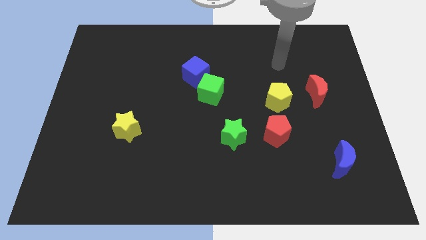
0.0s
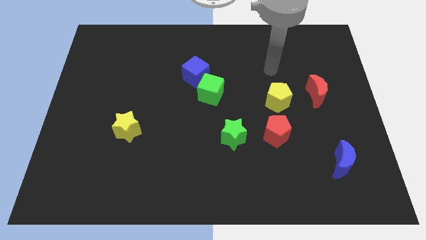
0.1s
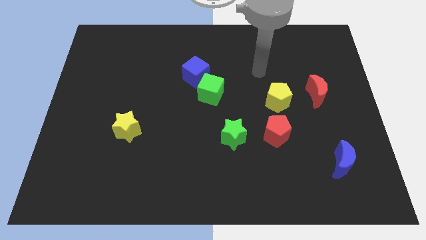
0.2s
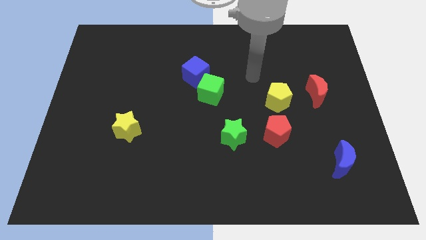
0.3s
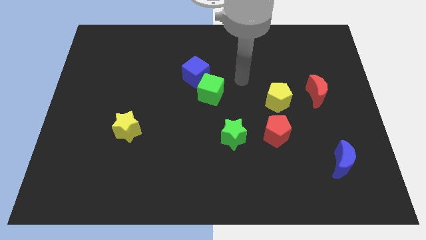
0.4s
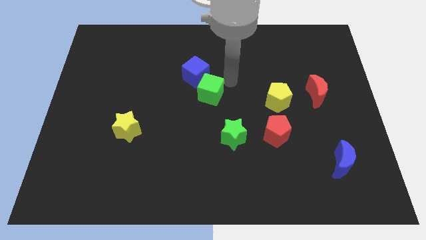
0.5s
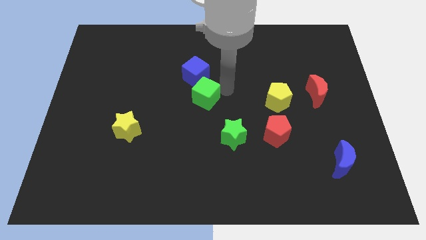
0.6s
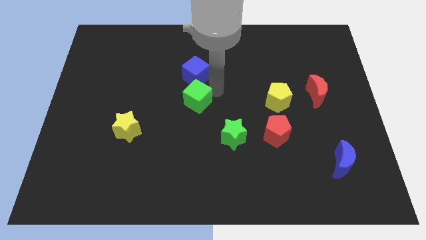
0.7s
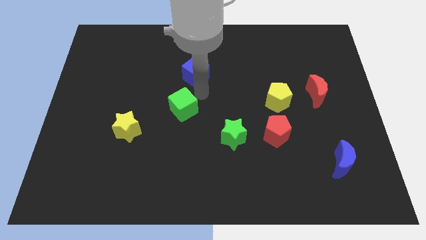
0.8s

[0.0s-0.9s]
separate the blue cube from the green cube

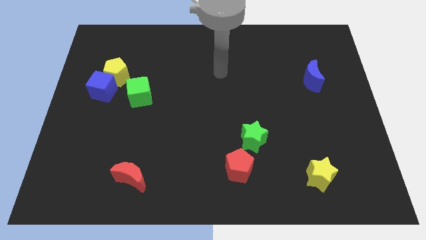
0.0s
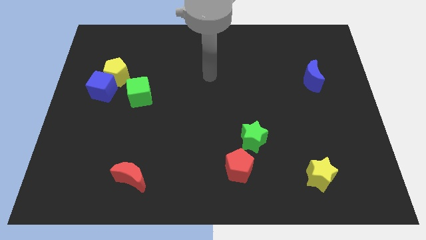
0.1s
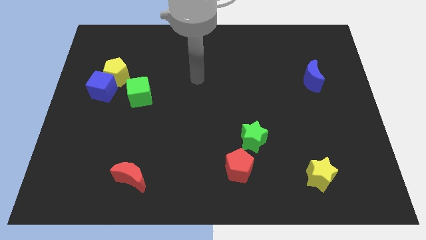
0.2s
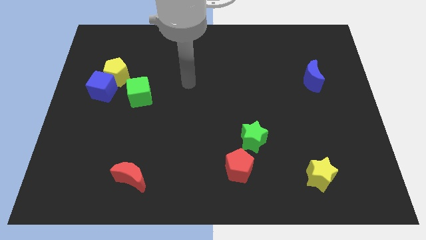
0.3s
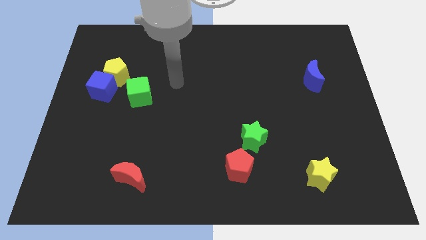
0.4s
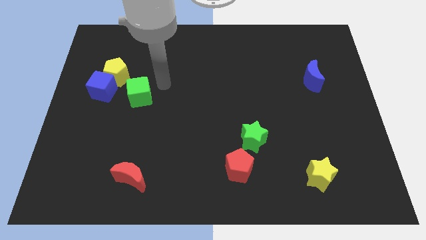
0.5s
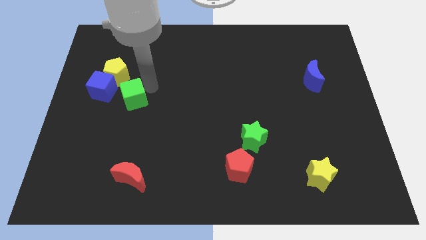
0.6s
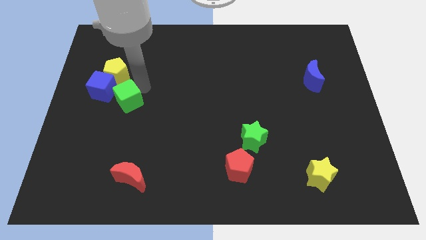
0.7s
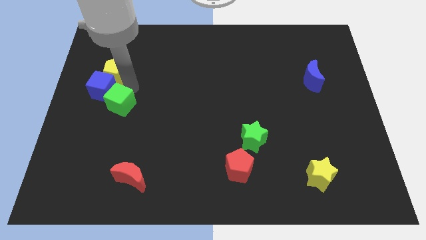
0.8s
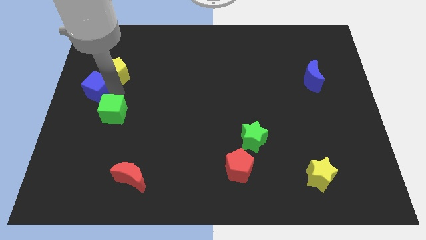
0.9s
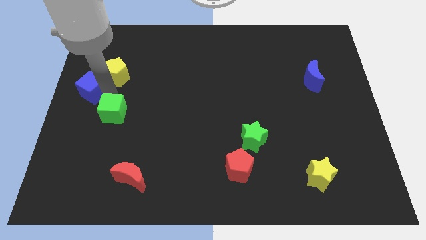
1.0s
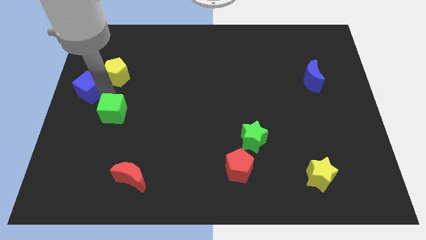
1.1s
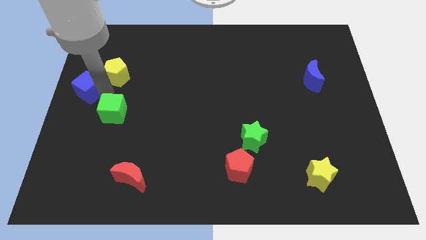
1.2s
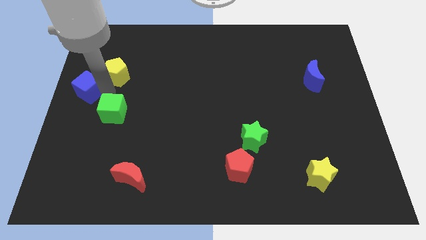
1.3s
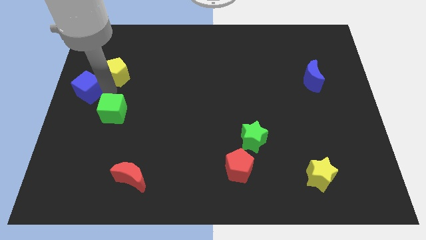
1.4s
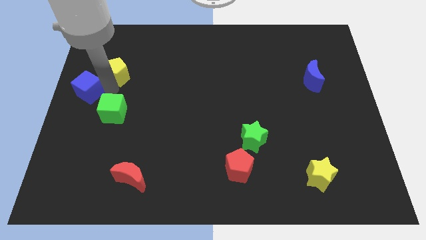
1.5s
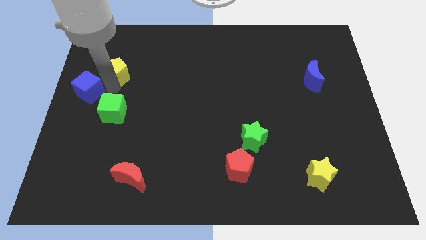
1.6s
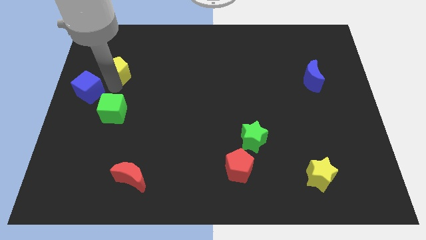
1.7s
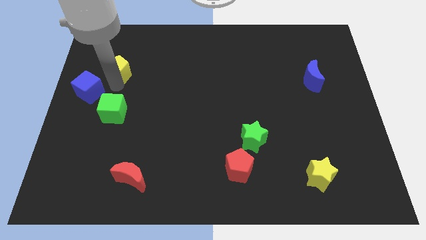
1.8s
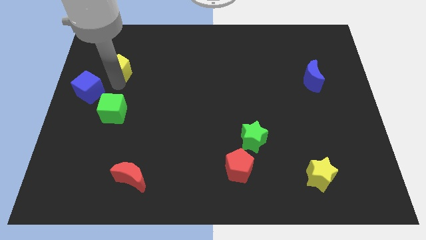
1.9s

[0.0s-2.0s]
pull the yellow pentagon apart from the blue cube and green cube

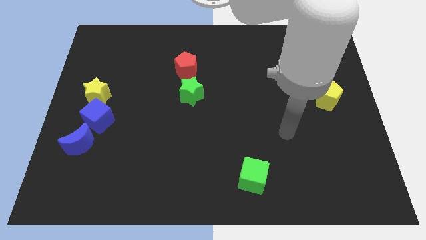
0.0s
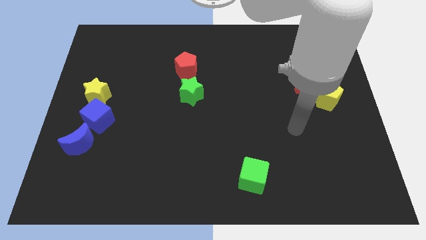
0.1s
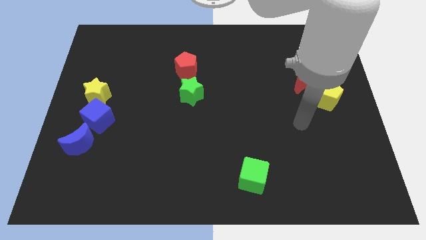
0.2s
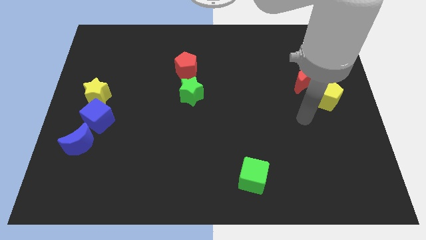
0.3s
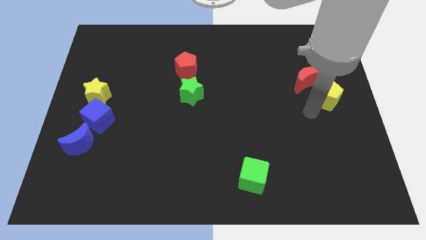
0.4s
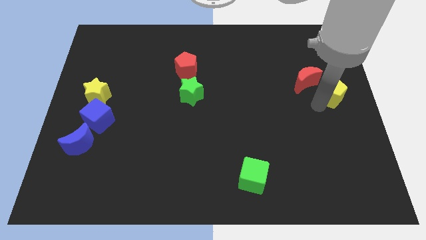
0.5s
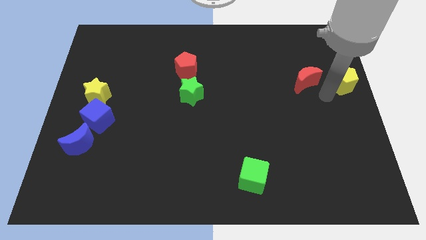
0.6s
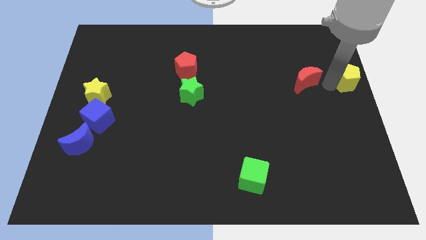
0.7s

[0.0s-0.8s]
move the red moon away from the yellow pentagon

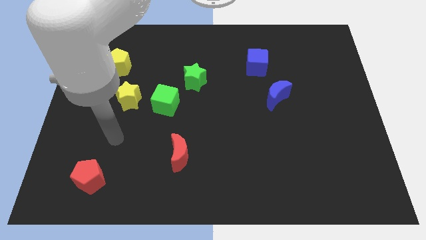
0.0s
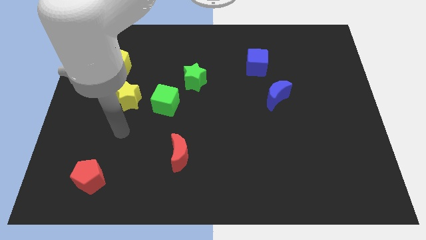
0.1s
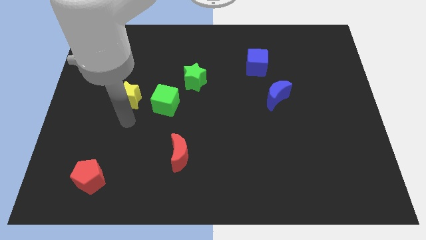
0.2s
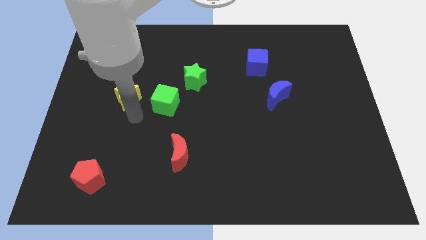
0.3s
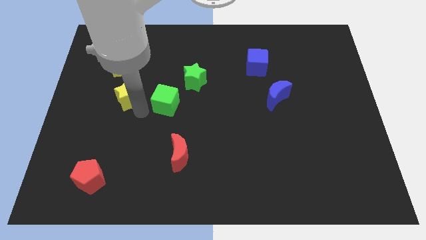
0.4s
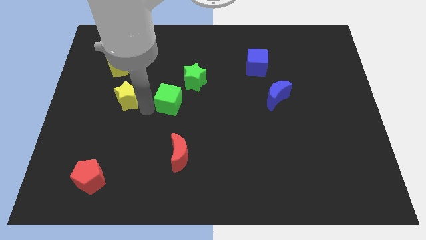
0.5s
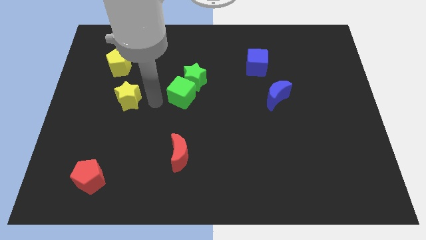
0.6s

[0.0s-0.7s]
pull the yellow star apart from the green cube

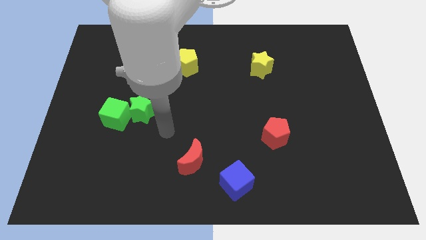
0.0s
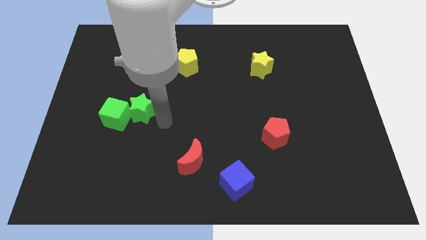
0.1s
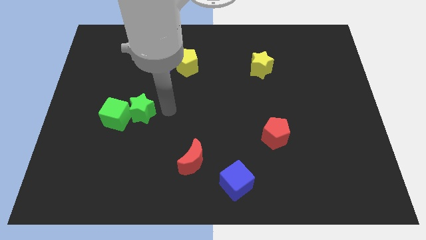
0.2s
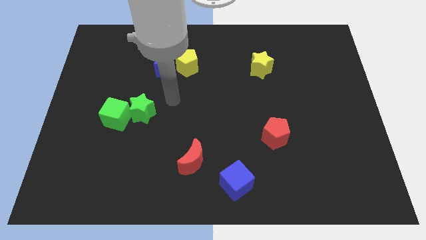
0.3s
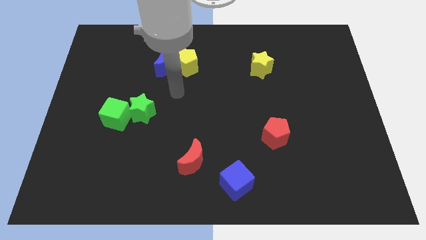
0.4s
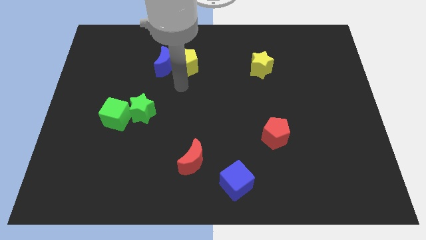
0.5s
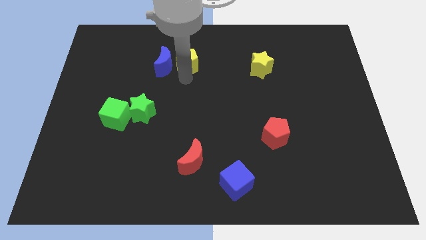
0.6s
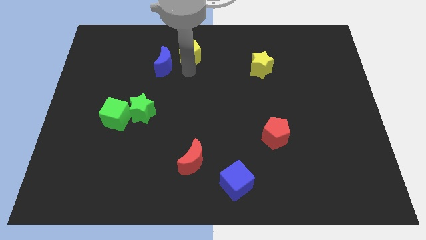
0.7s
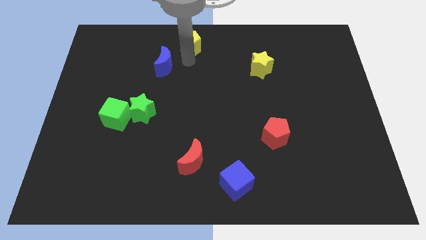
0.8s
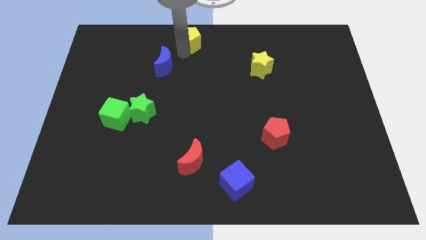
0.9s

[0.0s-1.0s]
pull the blue moon apart from the yellow pentagon

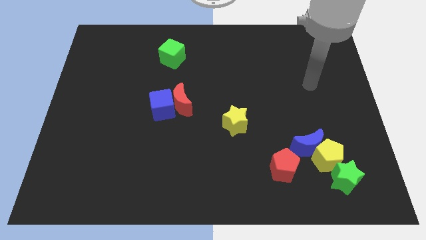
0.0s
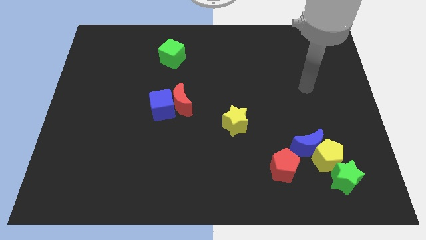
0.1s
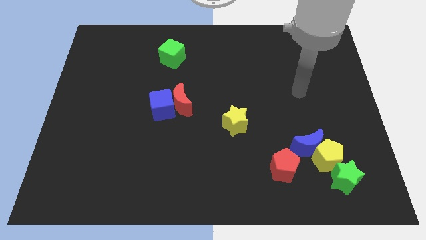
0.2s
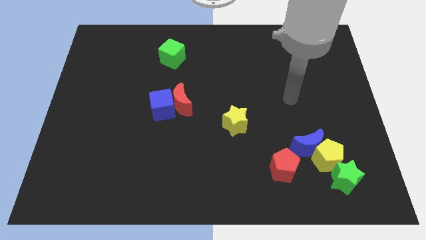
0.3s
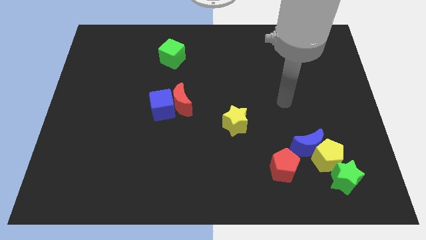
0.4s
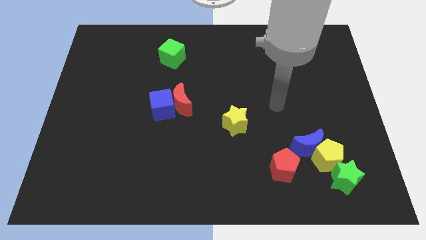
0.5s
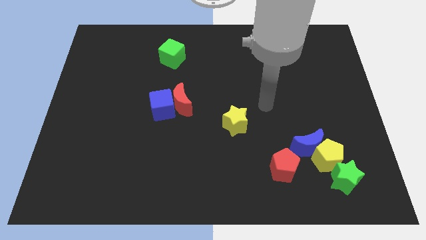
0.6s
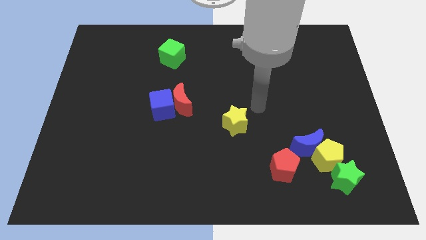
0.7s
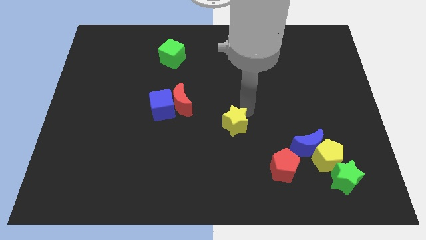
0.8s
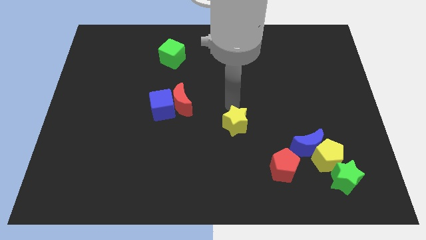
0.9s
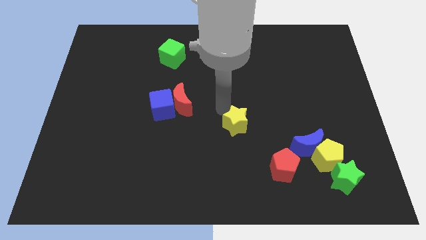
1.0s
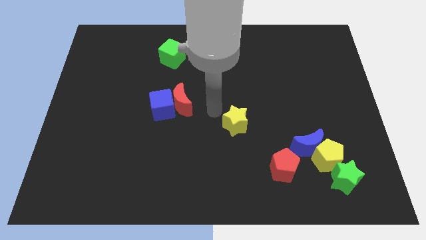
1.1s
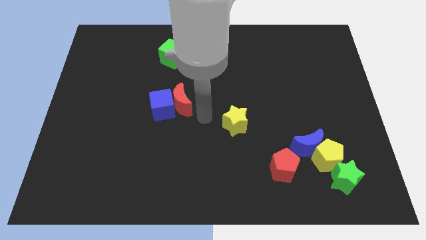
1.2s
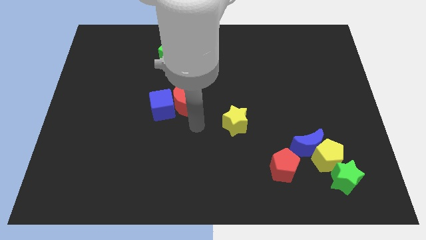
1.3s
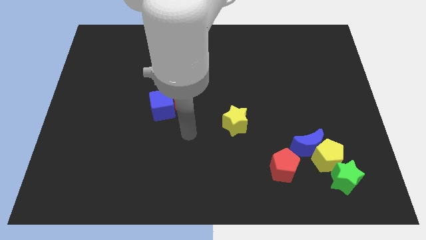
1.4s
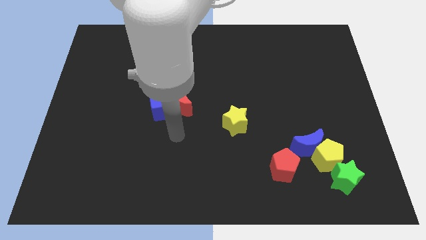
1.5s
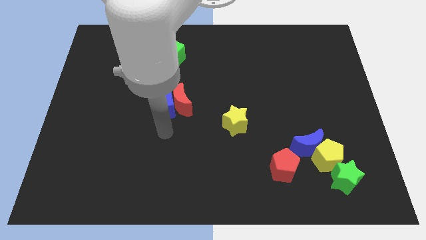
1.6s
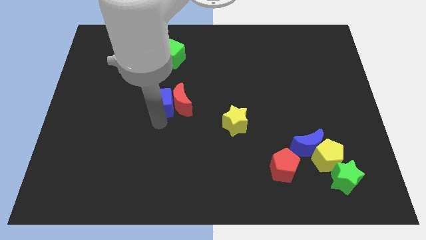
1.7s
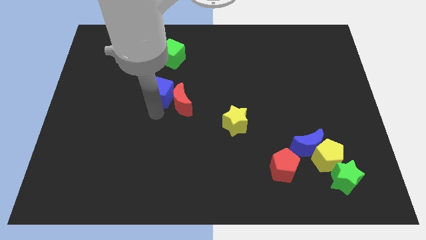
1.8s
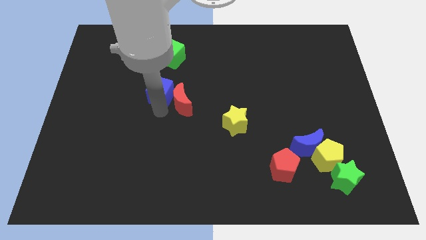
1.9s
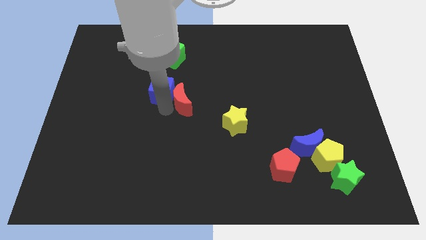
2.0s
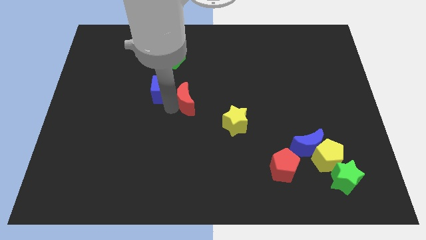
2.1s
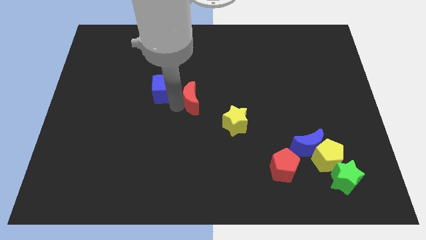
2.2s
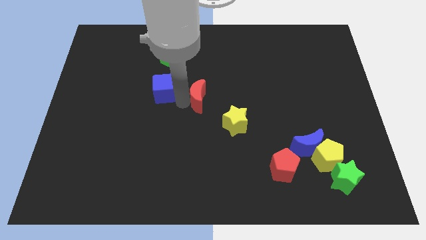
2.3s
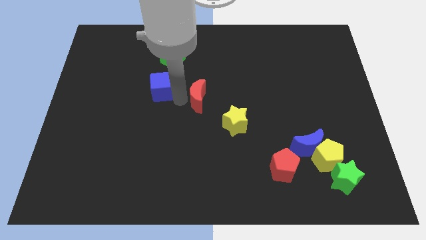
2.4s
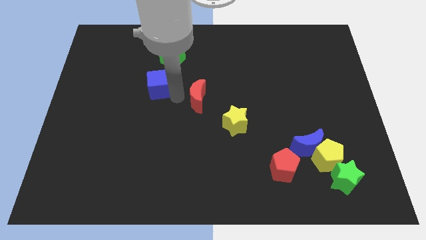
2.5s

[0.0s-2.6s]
pull the red moon apart from the blue cube

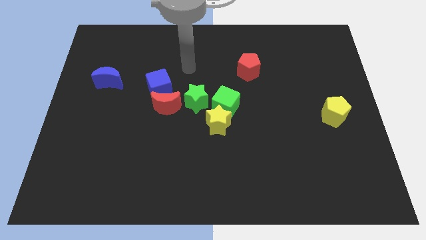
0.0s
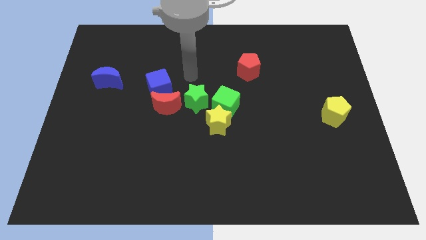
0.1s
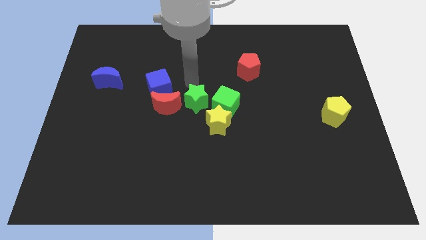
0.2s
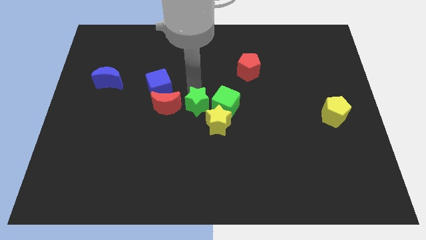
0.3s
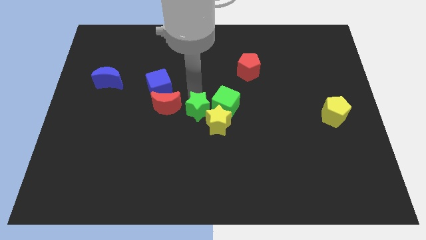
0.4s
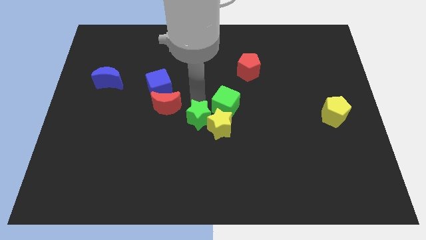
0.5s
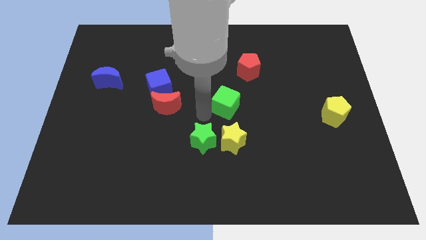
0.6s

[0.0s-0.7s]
move the green cube away from the yellow star and green star

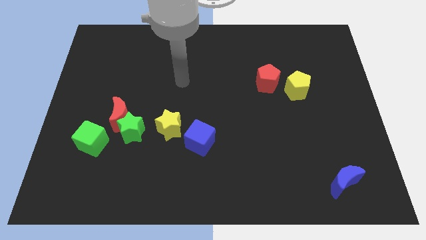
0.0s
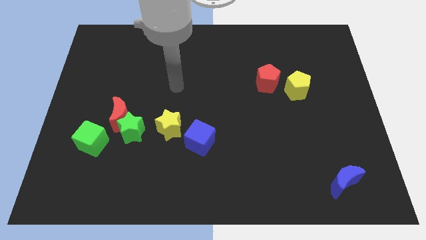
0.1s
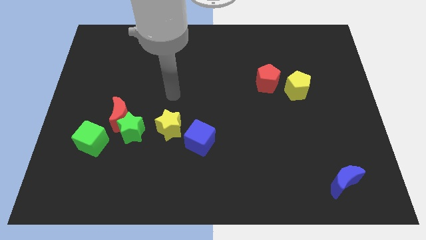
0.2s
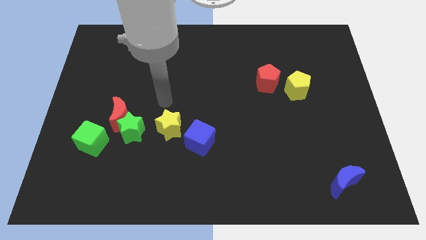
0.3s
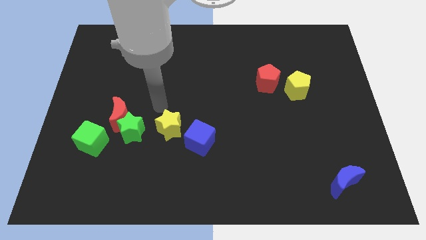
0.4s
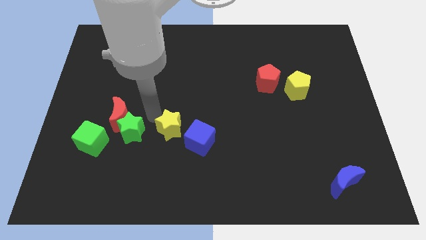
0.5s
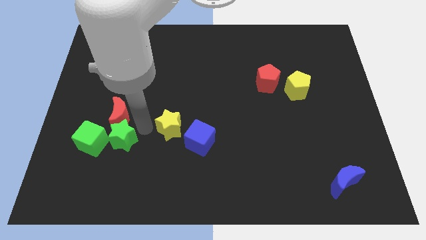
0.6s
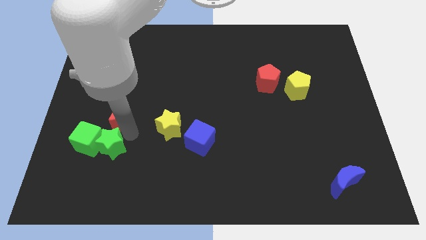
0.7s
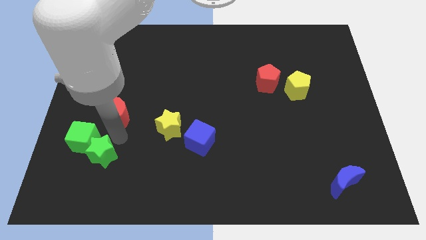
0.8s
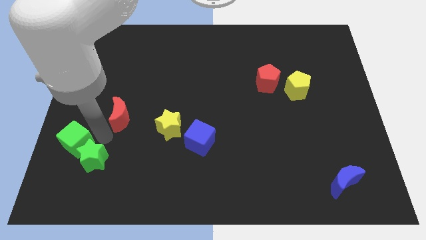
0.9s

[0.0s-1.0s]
separate the red moon from the green star and green cube
